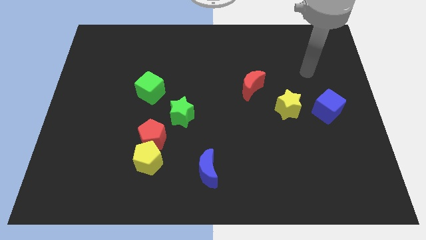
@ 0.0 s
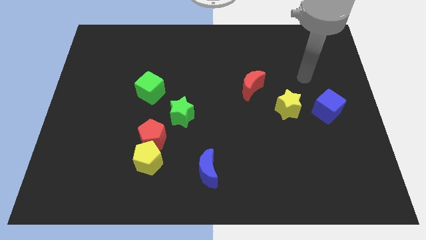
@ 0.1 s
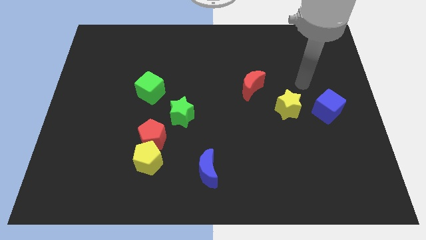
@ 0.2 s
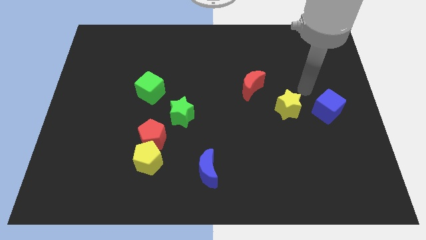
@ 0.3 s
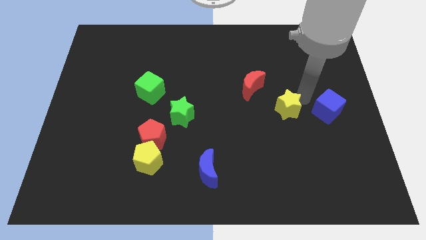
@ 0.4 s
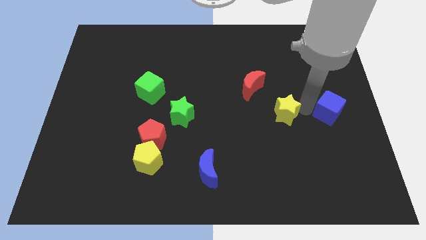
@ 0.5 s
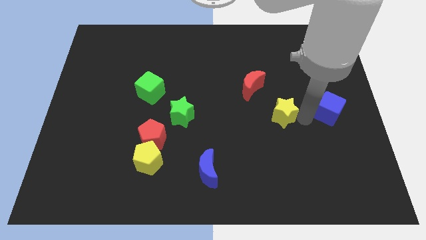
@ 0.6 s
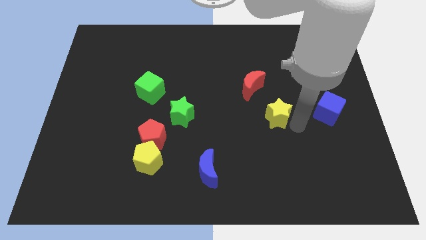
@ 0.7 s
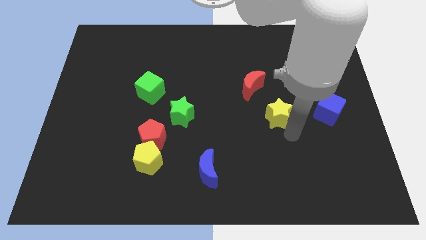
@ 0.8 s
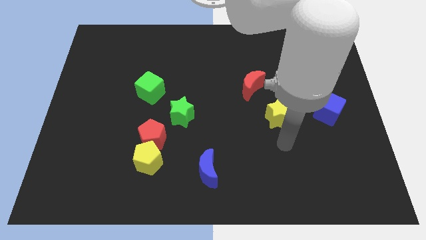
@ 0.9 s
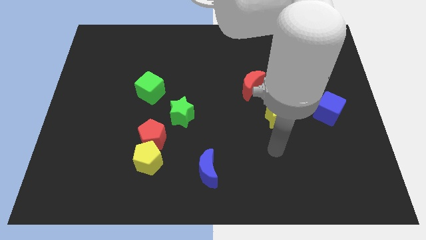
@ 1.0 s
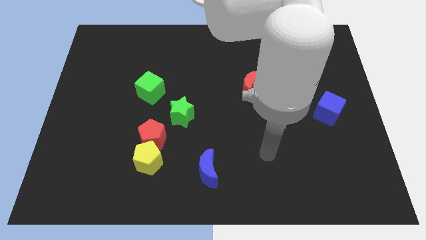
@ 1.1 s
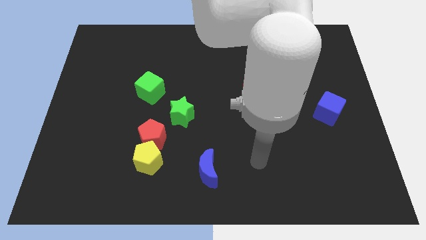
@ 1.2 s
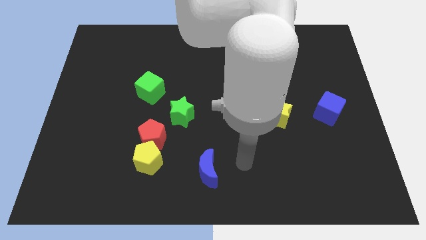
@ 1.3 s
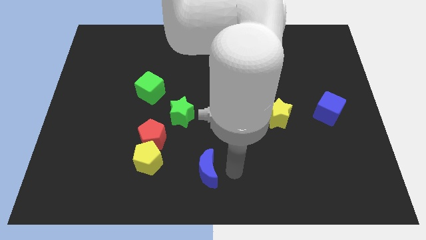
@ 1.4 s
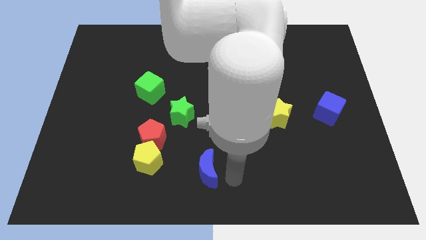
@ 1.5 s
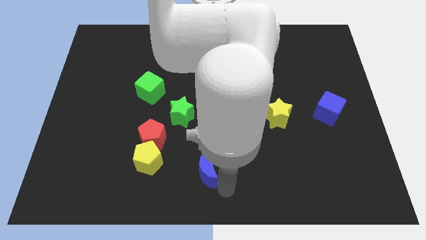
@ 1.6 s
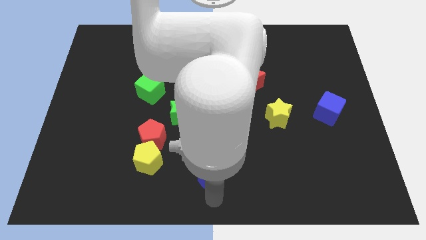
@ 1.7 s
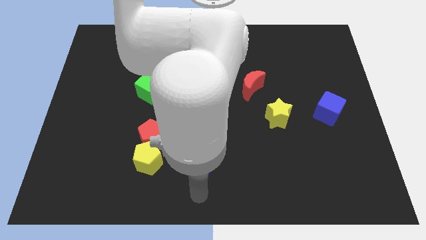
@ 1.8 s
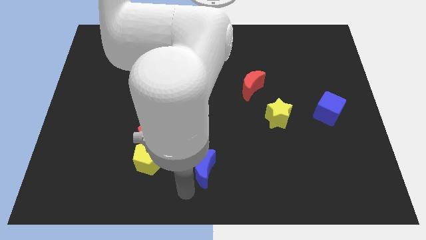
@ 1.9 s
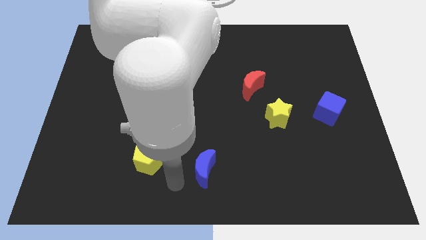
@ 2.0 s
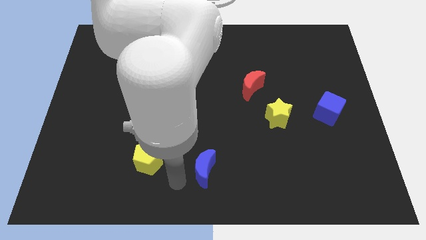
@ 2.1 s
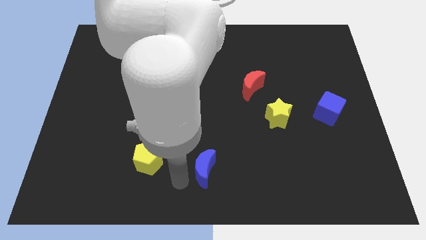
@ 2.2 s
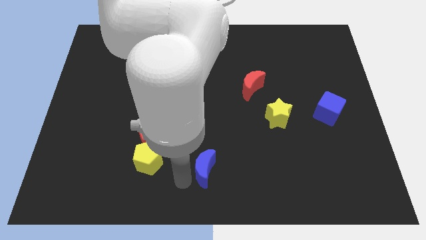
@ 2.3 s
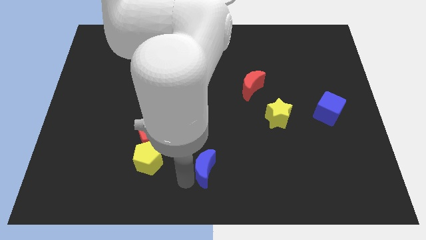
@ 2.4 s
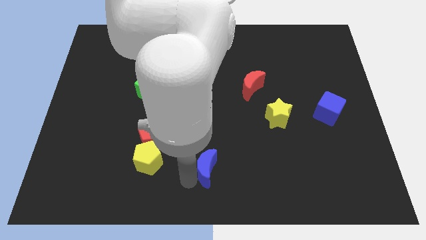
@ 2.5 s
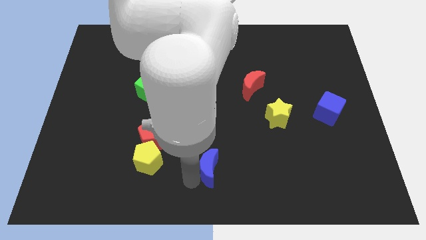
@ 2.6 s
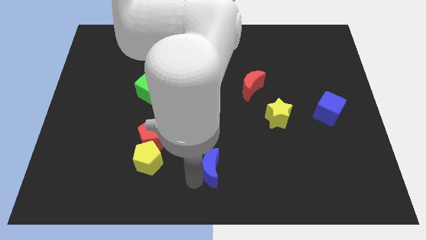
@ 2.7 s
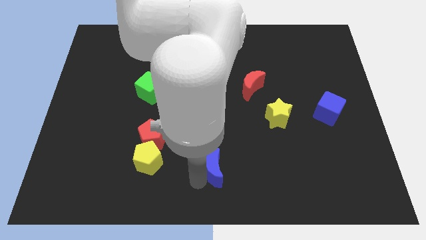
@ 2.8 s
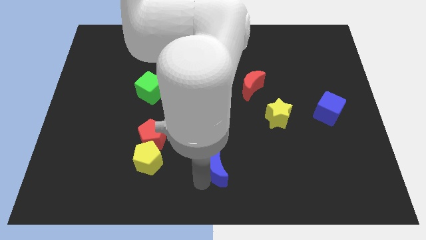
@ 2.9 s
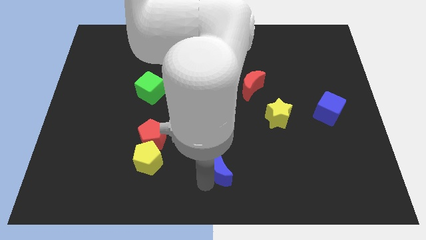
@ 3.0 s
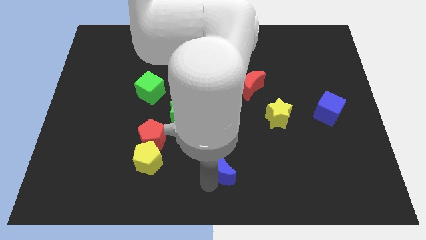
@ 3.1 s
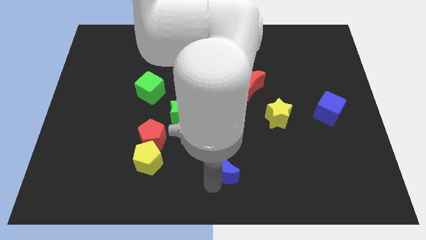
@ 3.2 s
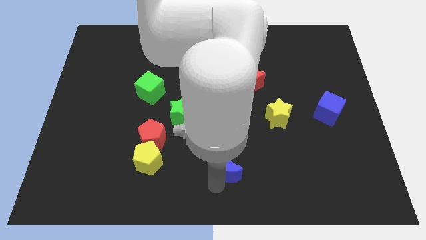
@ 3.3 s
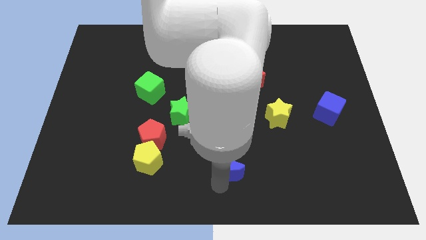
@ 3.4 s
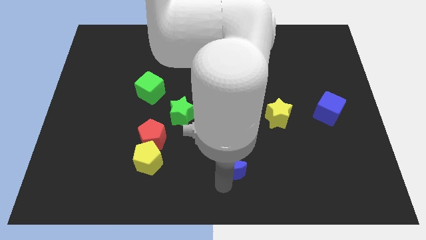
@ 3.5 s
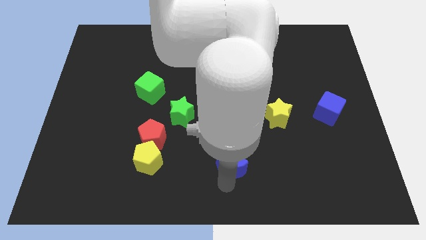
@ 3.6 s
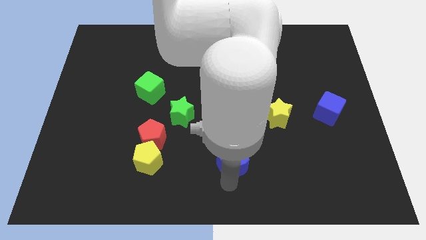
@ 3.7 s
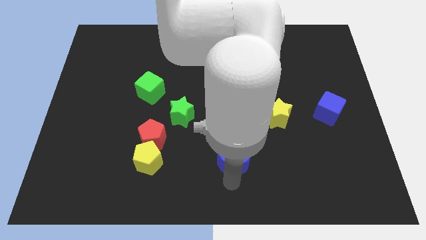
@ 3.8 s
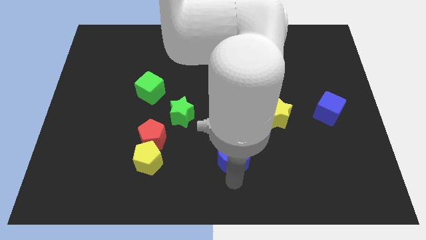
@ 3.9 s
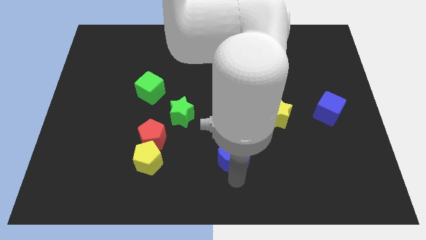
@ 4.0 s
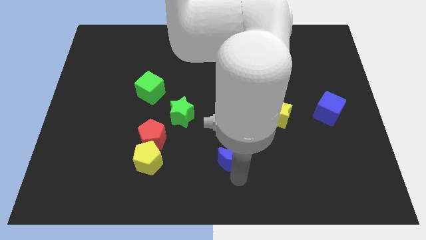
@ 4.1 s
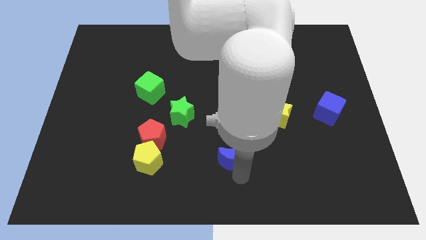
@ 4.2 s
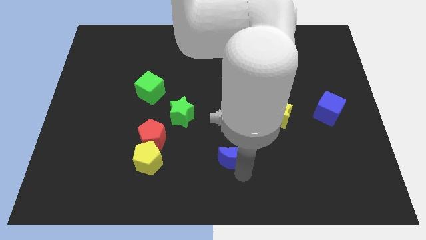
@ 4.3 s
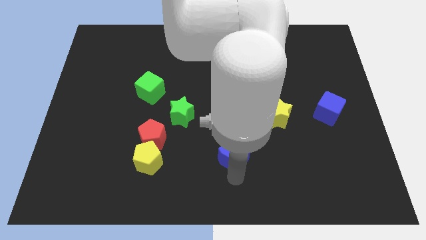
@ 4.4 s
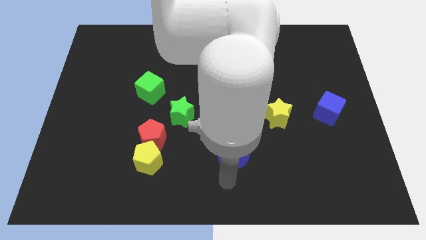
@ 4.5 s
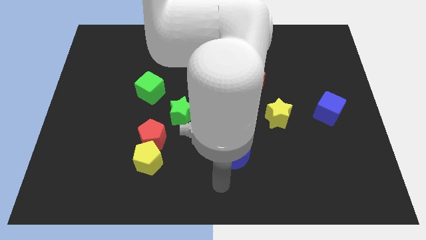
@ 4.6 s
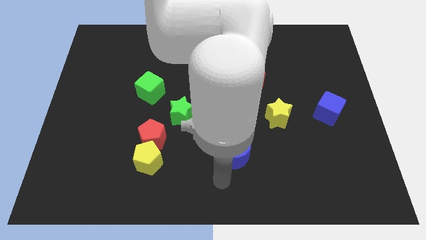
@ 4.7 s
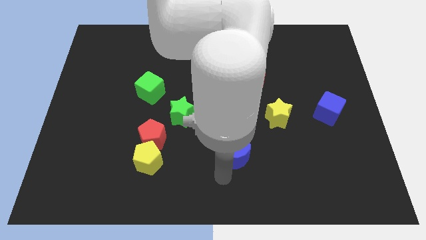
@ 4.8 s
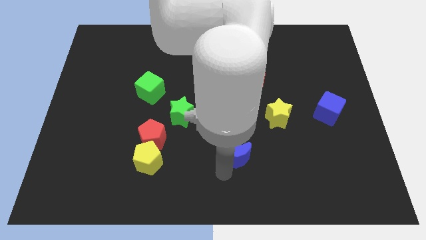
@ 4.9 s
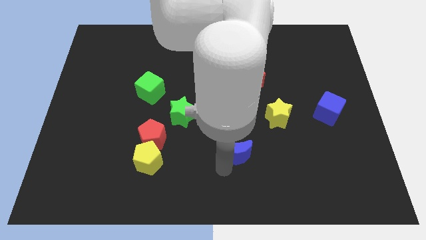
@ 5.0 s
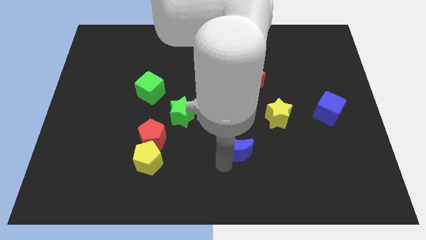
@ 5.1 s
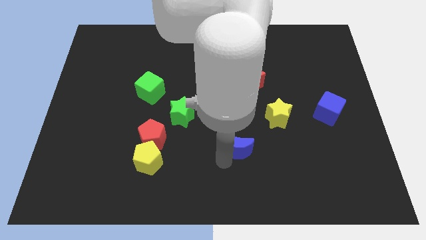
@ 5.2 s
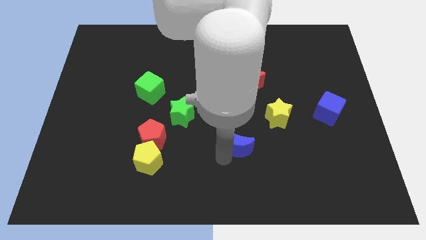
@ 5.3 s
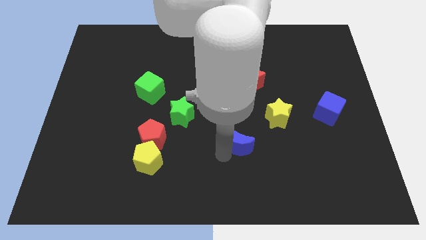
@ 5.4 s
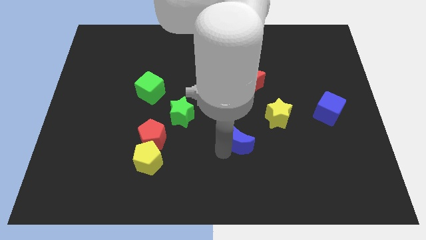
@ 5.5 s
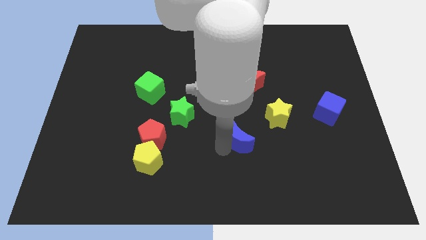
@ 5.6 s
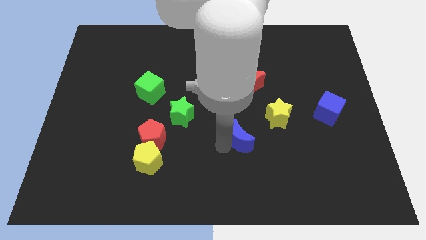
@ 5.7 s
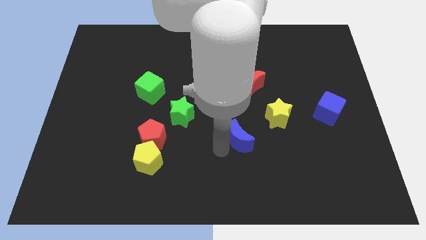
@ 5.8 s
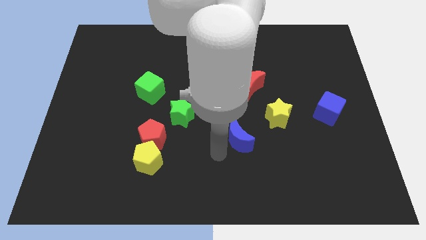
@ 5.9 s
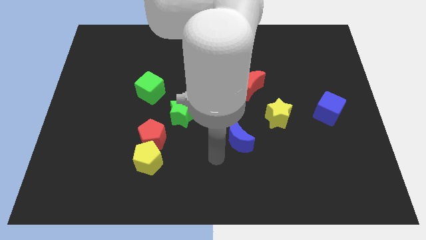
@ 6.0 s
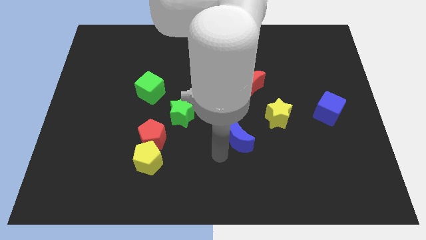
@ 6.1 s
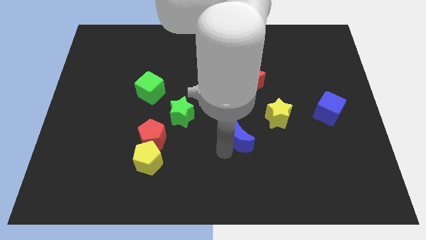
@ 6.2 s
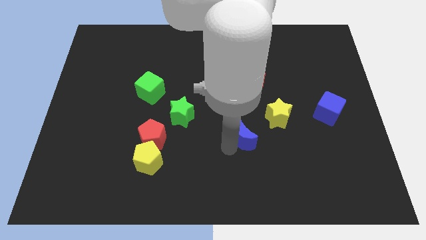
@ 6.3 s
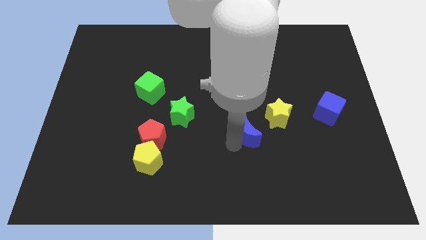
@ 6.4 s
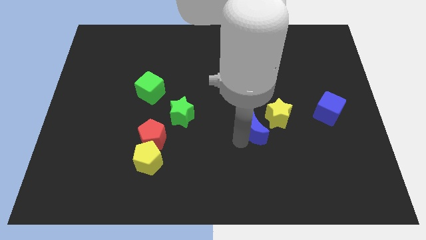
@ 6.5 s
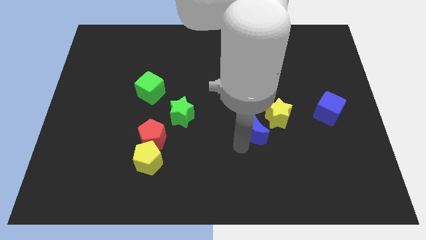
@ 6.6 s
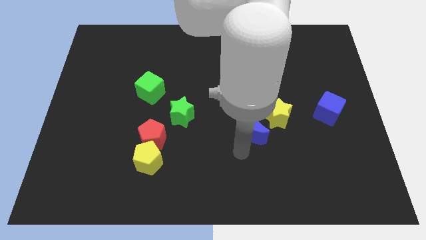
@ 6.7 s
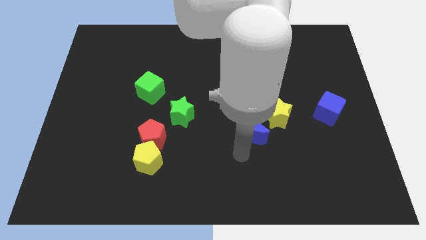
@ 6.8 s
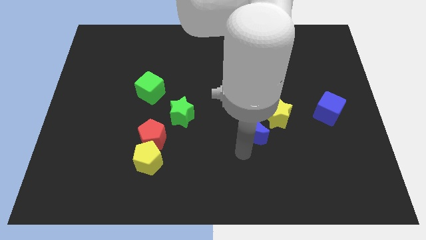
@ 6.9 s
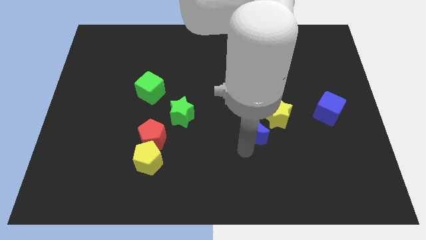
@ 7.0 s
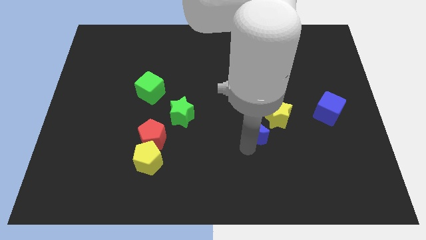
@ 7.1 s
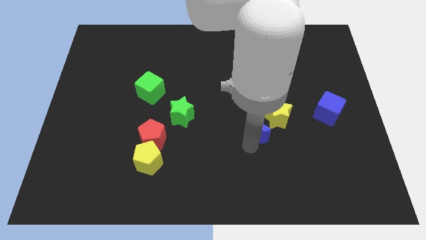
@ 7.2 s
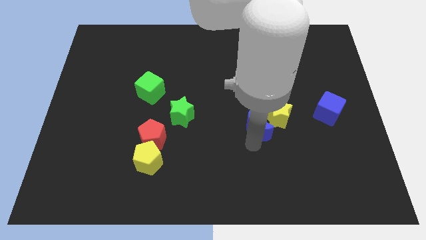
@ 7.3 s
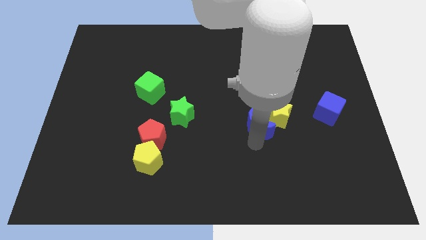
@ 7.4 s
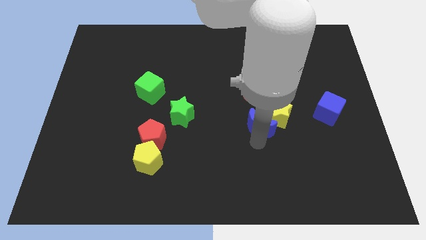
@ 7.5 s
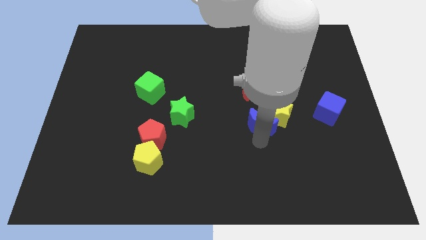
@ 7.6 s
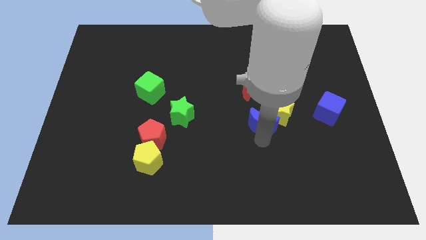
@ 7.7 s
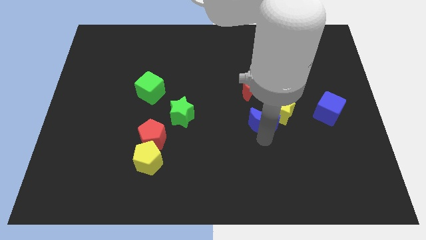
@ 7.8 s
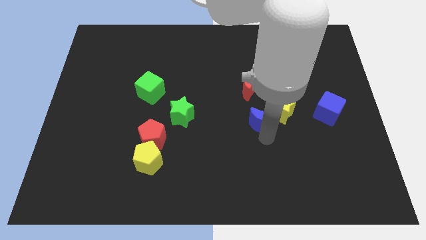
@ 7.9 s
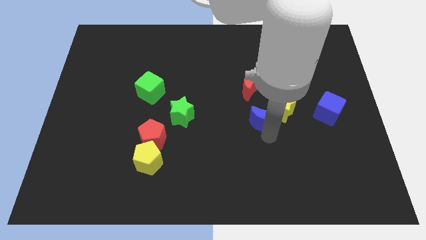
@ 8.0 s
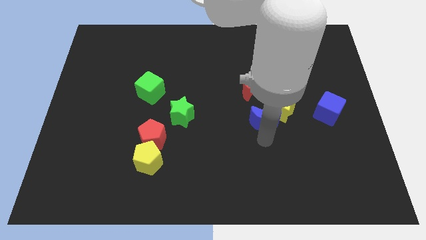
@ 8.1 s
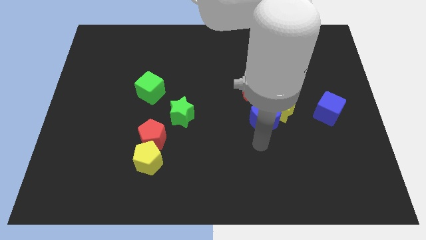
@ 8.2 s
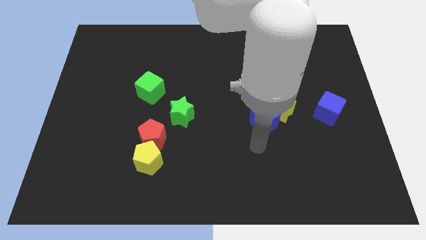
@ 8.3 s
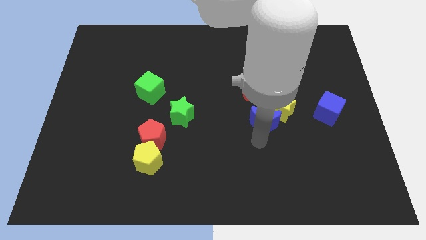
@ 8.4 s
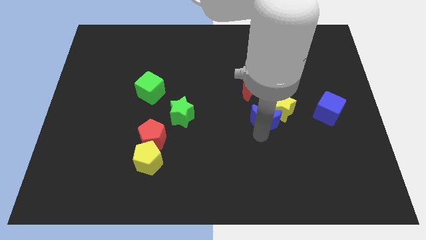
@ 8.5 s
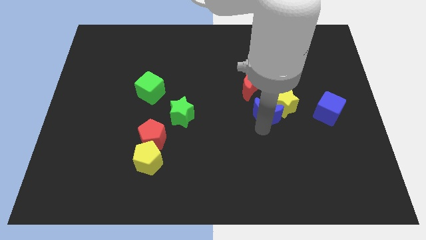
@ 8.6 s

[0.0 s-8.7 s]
move the blue moon diagonally up and right
